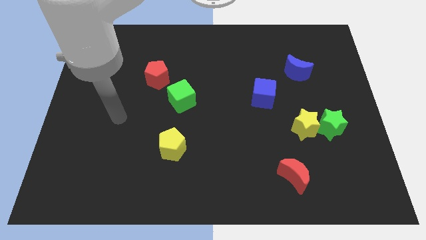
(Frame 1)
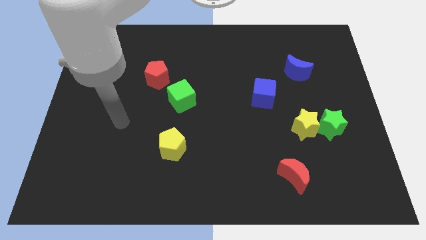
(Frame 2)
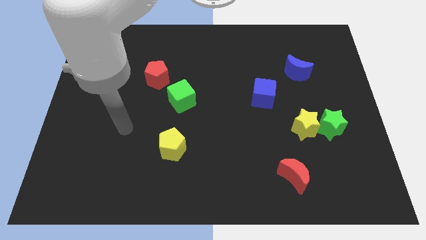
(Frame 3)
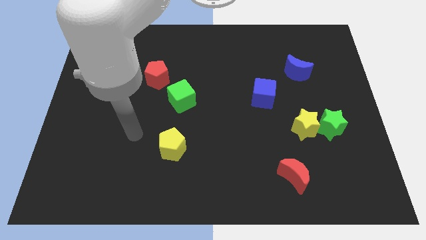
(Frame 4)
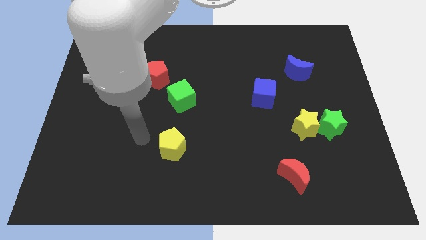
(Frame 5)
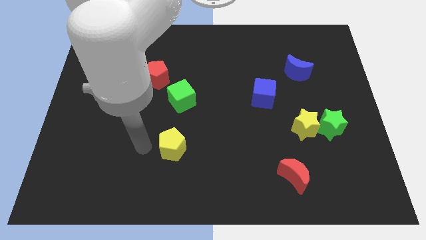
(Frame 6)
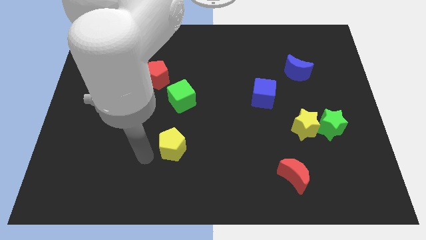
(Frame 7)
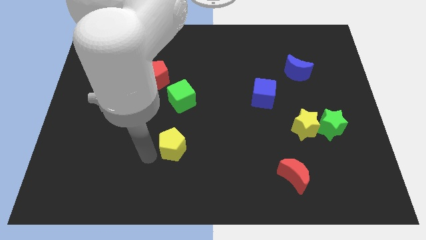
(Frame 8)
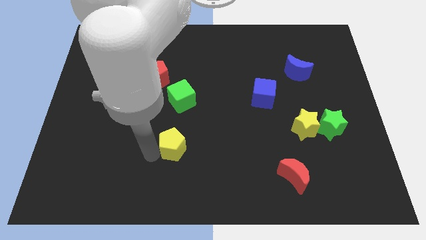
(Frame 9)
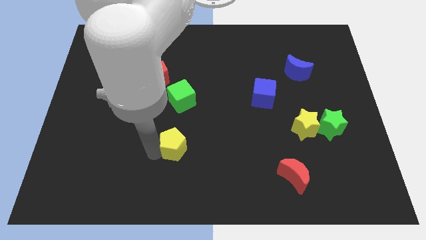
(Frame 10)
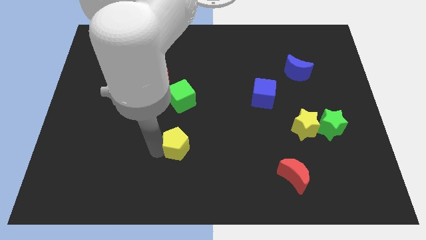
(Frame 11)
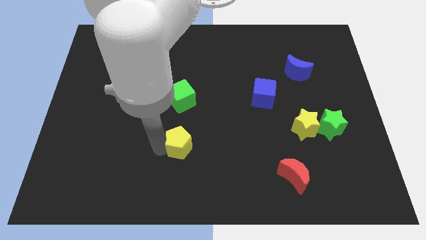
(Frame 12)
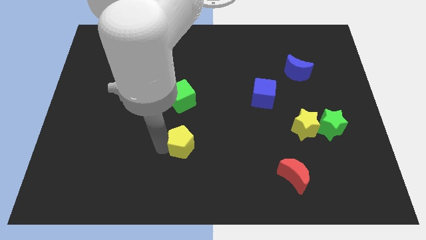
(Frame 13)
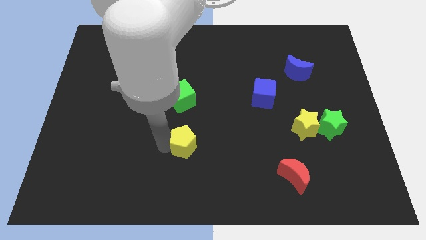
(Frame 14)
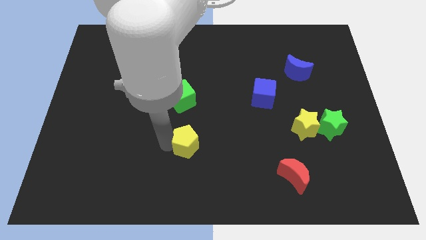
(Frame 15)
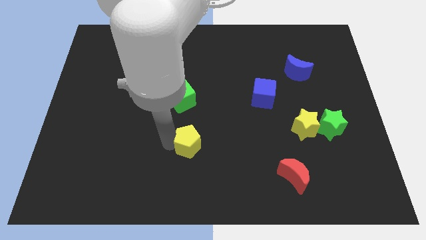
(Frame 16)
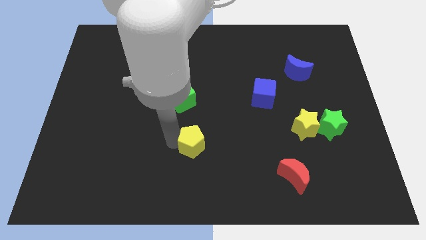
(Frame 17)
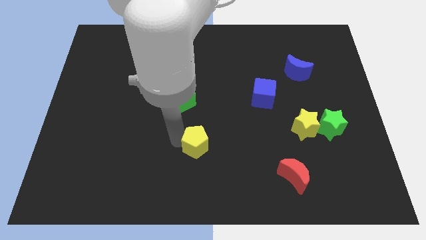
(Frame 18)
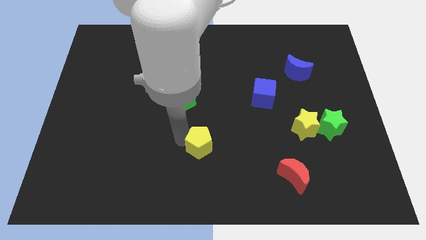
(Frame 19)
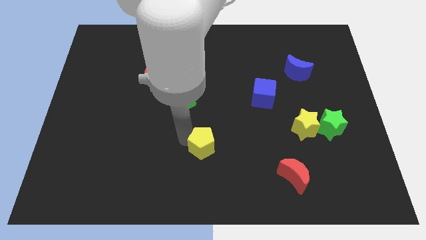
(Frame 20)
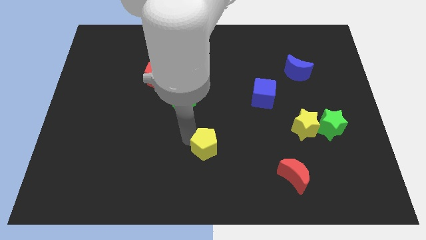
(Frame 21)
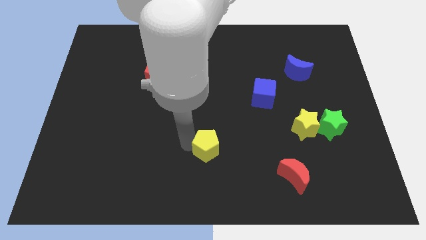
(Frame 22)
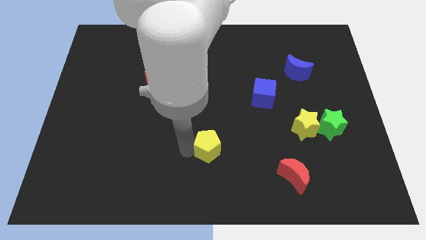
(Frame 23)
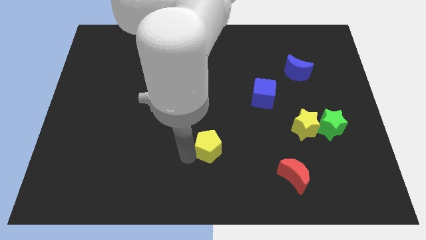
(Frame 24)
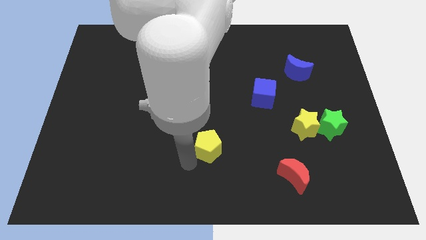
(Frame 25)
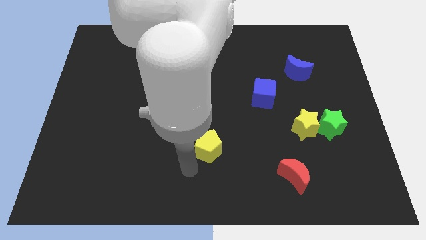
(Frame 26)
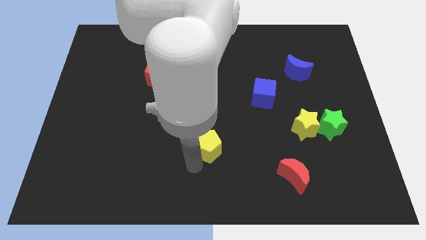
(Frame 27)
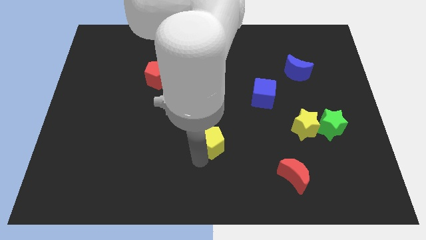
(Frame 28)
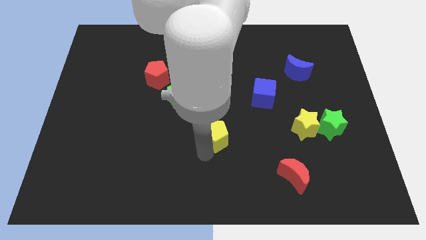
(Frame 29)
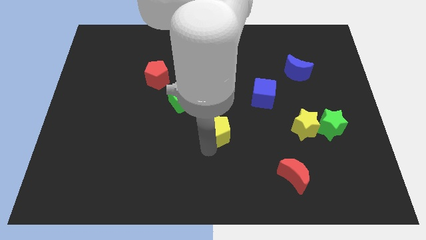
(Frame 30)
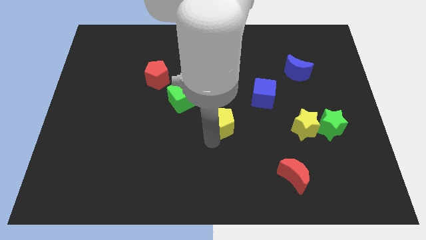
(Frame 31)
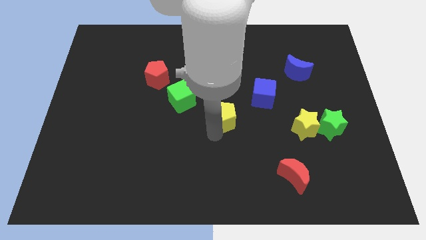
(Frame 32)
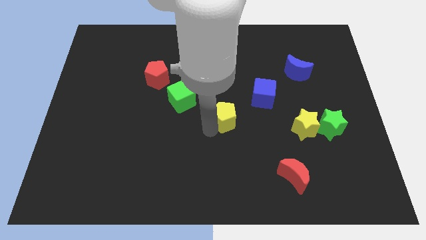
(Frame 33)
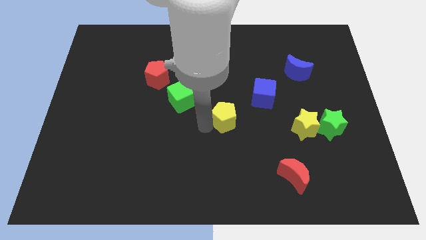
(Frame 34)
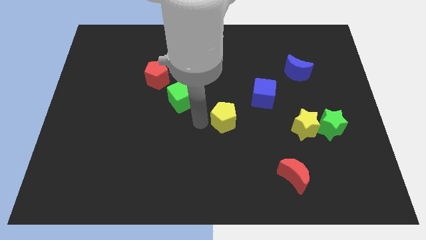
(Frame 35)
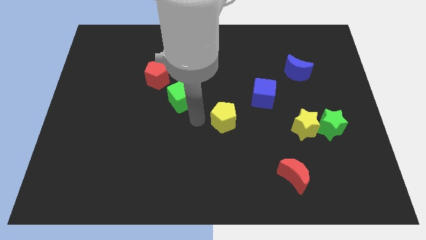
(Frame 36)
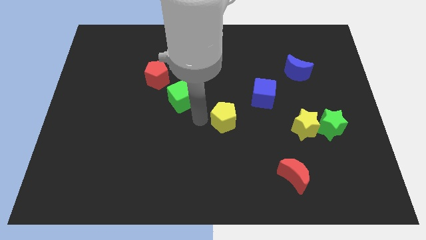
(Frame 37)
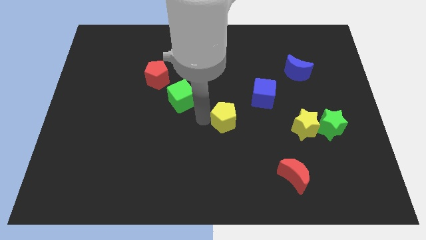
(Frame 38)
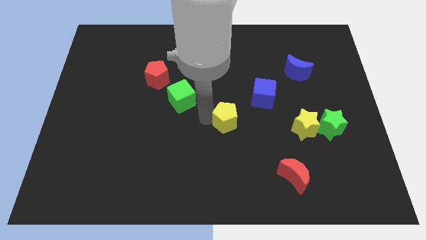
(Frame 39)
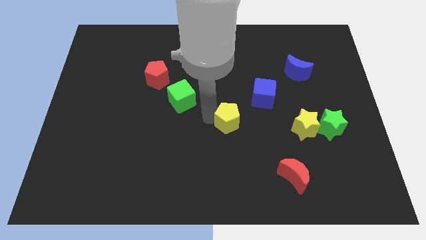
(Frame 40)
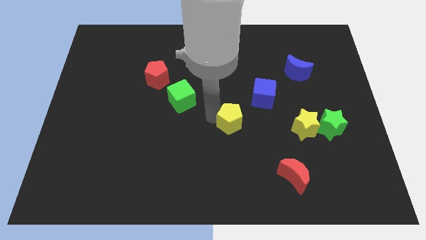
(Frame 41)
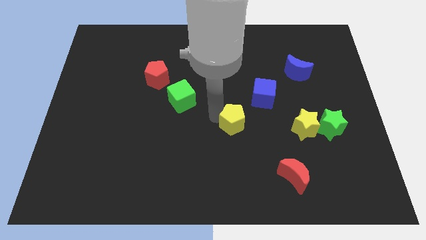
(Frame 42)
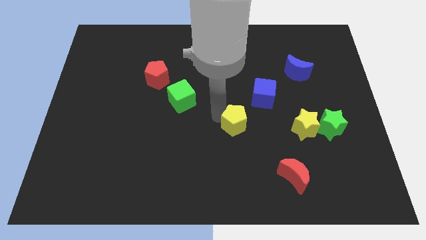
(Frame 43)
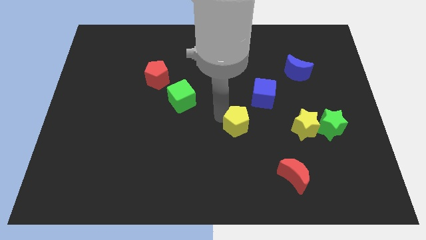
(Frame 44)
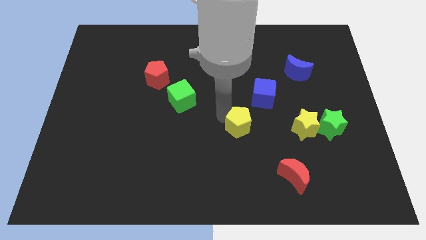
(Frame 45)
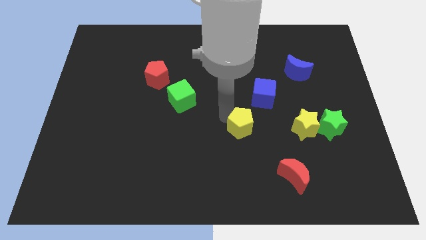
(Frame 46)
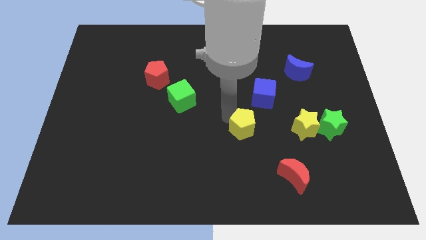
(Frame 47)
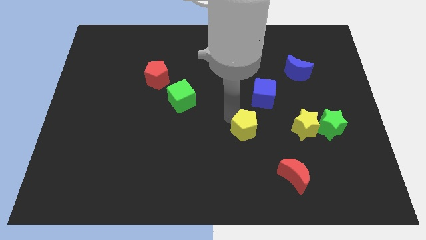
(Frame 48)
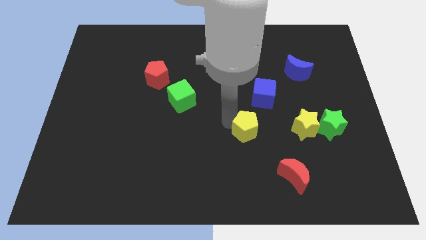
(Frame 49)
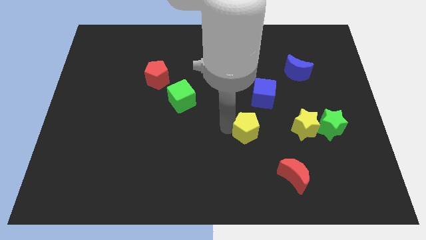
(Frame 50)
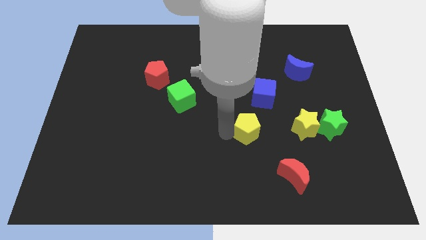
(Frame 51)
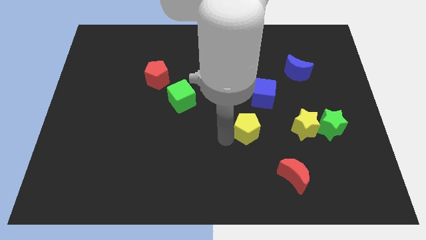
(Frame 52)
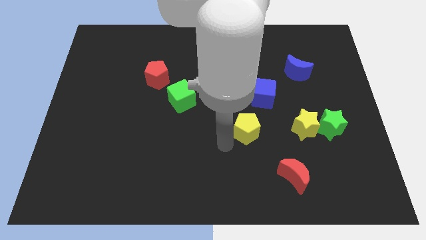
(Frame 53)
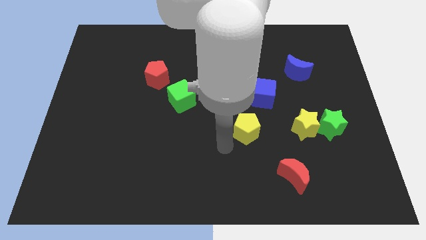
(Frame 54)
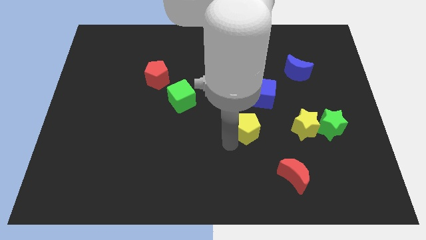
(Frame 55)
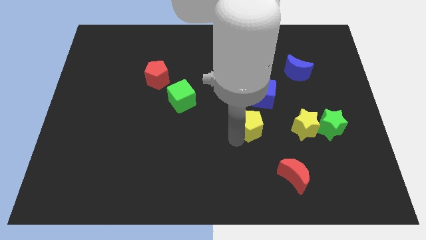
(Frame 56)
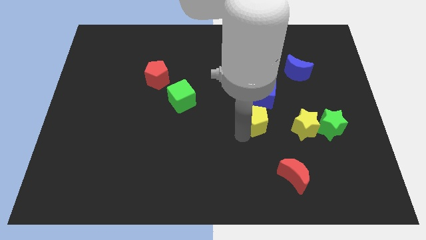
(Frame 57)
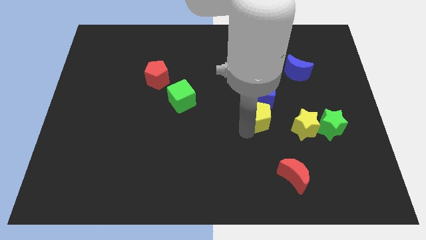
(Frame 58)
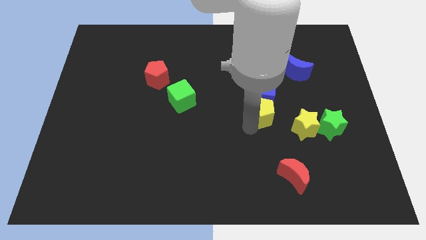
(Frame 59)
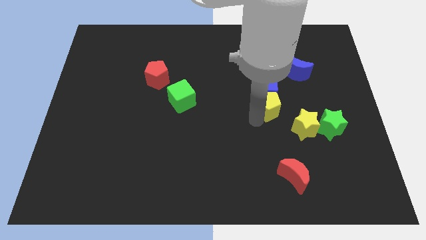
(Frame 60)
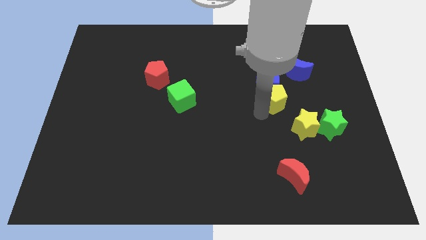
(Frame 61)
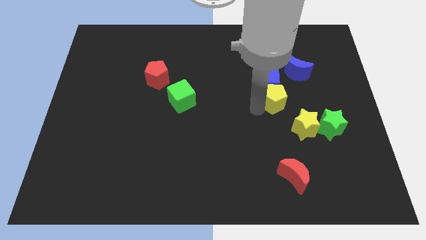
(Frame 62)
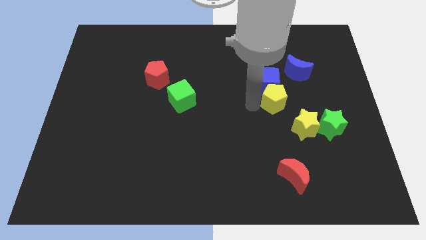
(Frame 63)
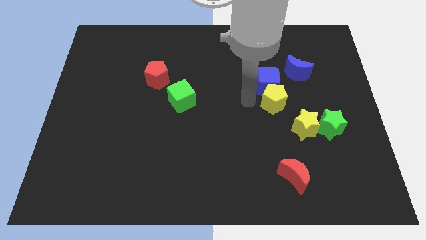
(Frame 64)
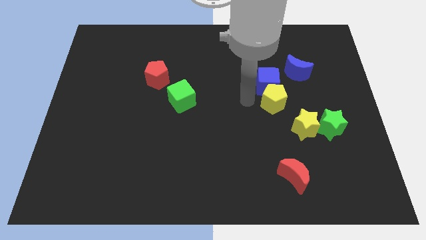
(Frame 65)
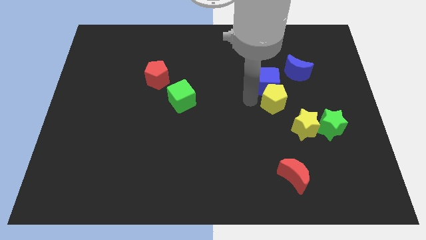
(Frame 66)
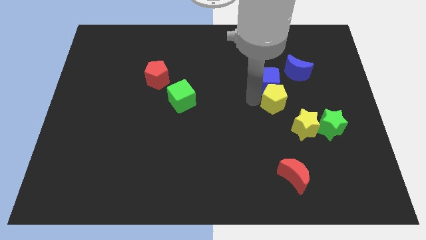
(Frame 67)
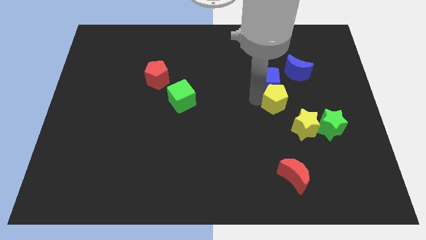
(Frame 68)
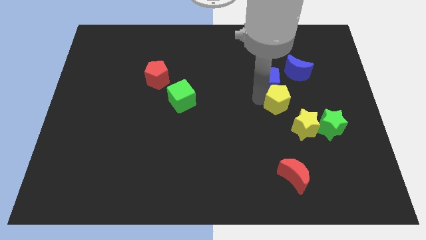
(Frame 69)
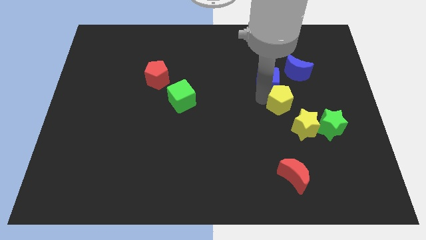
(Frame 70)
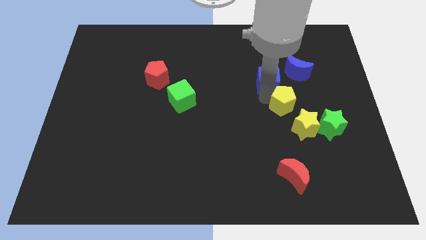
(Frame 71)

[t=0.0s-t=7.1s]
slide the yellow pentagon below the blue moon

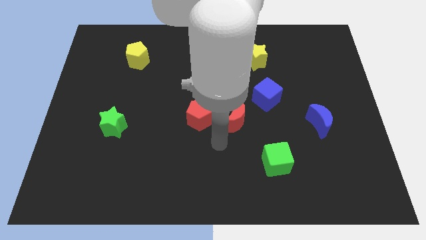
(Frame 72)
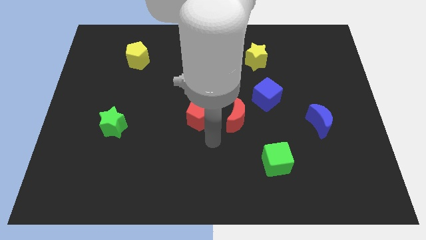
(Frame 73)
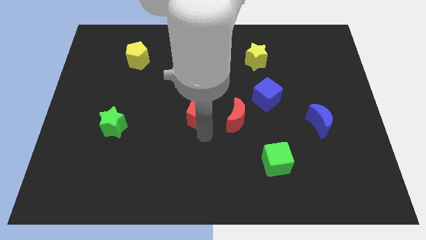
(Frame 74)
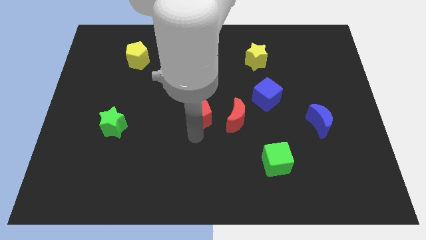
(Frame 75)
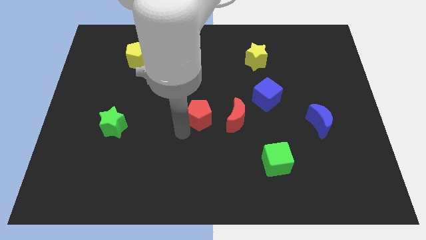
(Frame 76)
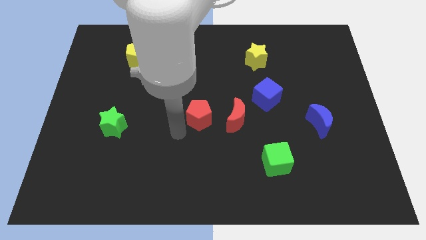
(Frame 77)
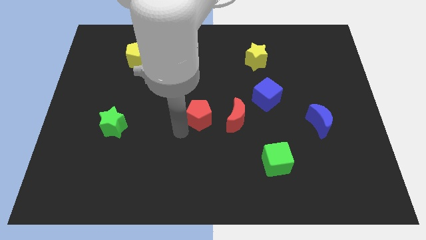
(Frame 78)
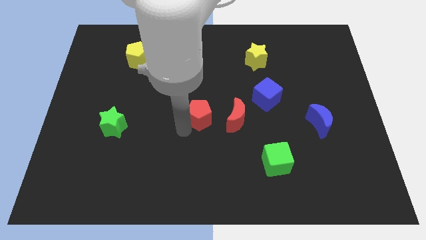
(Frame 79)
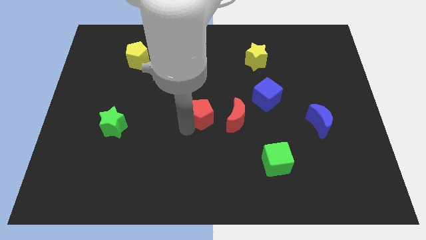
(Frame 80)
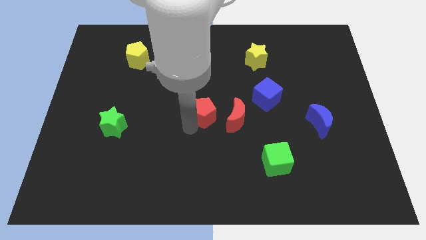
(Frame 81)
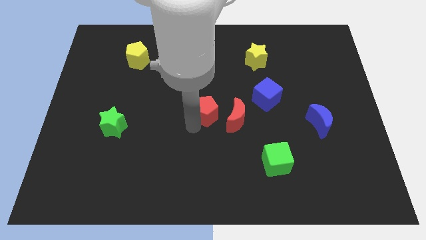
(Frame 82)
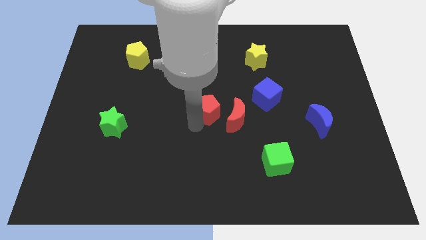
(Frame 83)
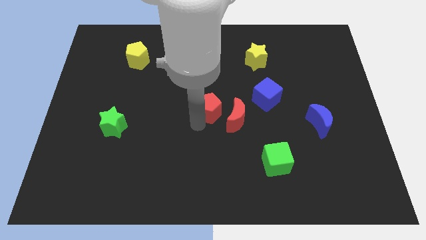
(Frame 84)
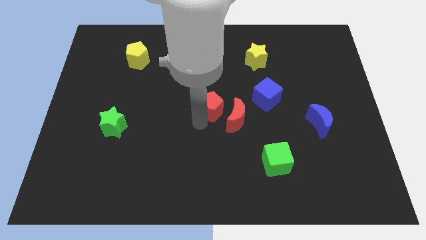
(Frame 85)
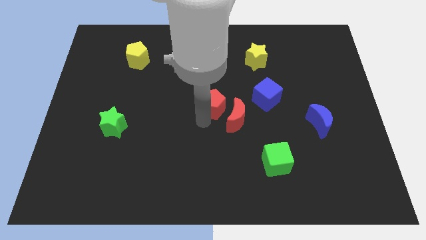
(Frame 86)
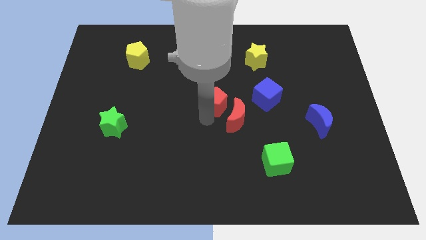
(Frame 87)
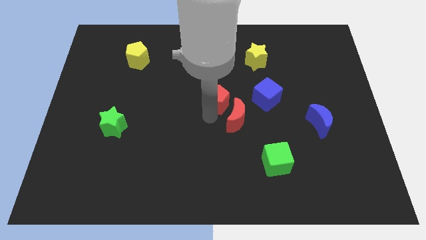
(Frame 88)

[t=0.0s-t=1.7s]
move the red pentagon to the top of the red moon
